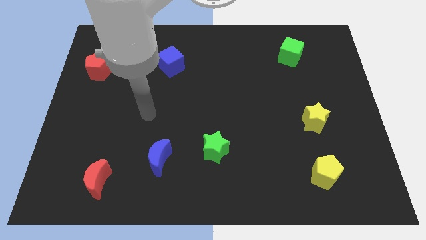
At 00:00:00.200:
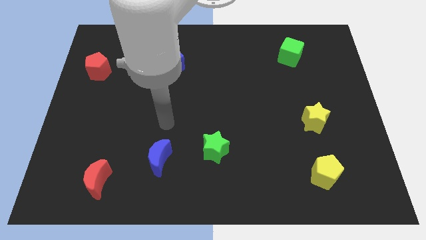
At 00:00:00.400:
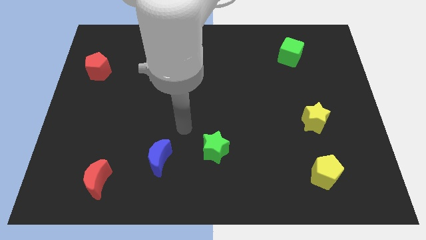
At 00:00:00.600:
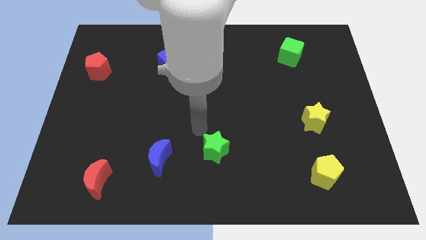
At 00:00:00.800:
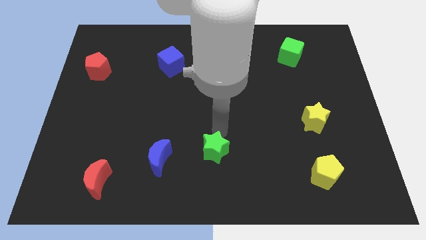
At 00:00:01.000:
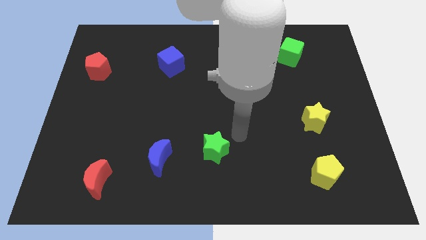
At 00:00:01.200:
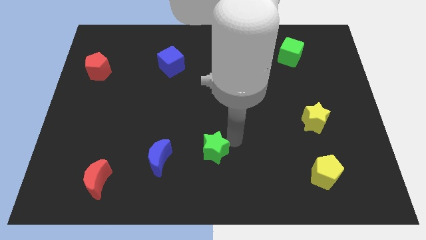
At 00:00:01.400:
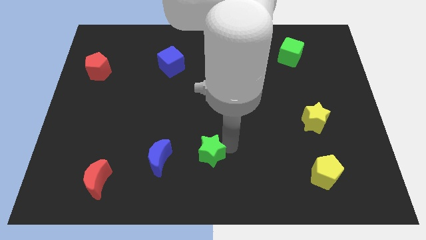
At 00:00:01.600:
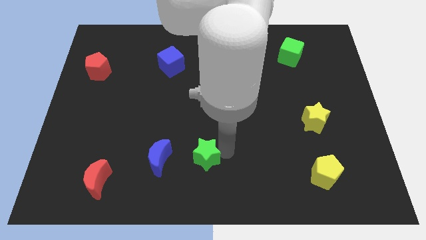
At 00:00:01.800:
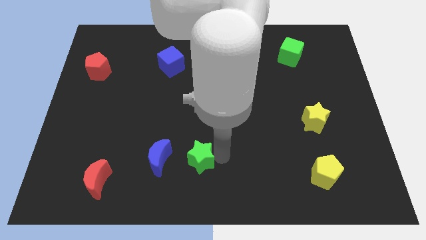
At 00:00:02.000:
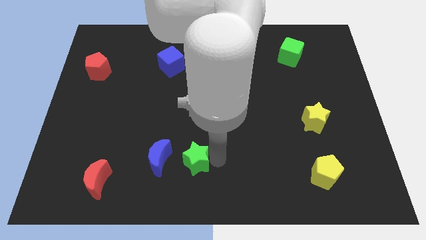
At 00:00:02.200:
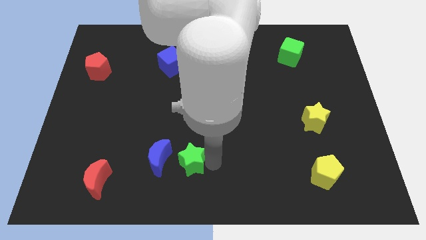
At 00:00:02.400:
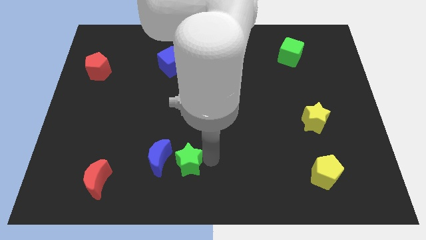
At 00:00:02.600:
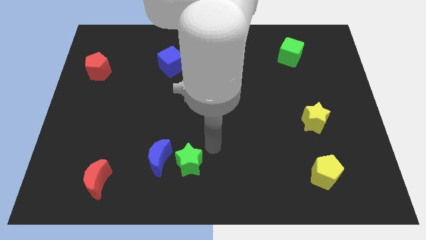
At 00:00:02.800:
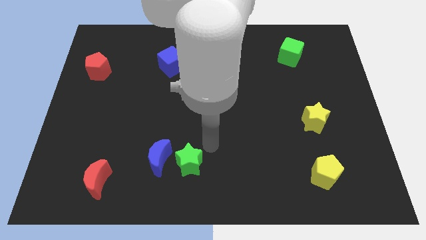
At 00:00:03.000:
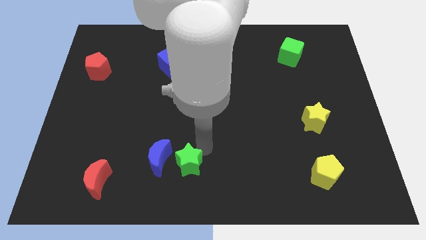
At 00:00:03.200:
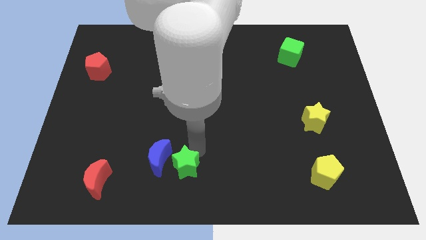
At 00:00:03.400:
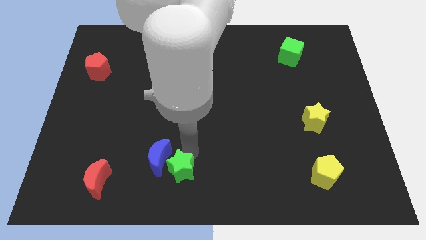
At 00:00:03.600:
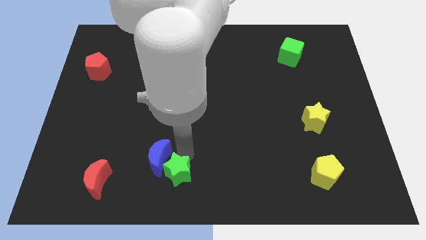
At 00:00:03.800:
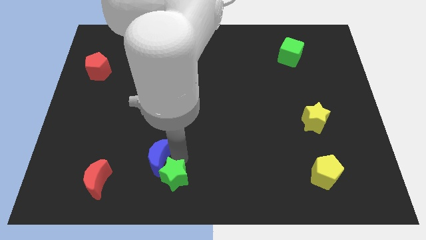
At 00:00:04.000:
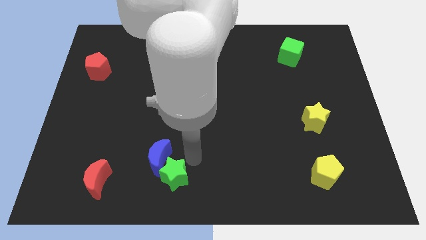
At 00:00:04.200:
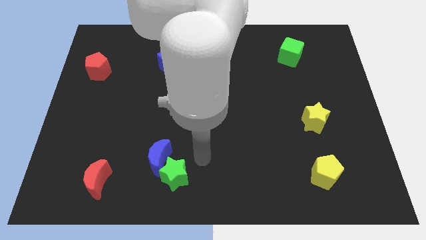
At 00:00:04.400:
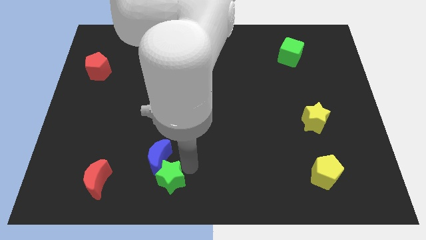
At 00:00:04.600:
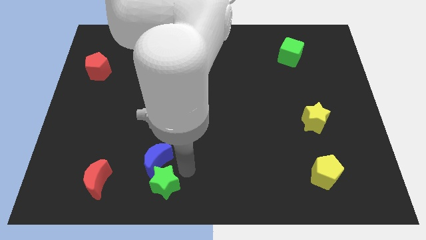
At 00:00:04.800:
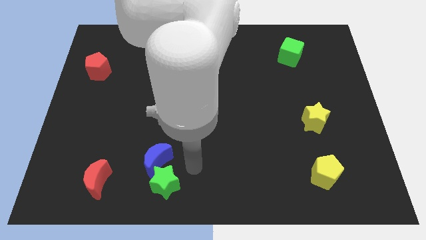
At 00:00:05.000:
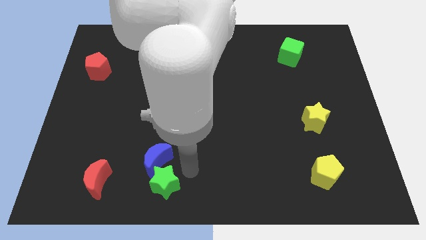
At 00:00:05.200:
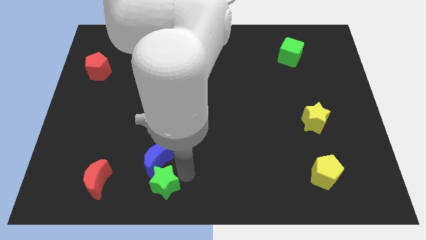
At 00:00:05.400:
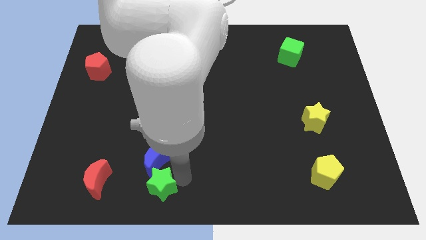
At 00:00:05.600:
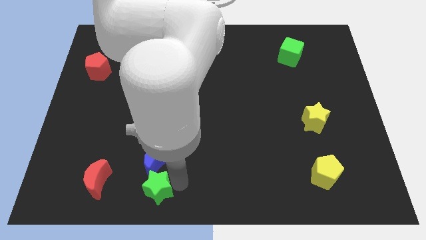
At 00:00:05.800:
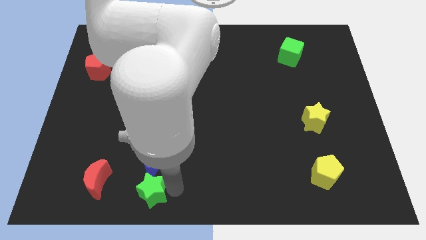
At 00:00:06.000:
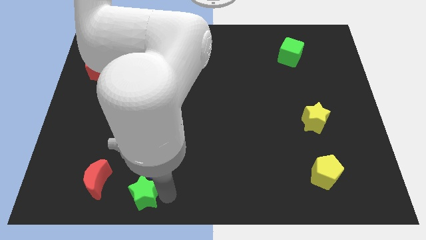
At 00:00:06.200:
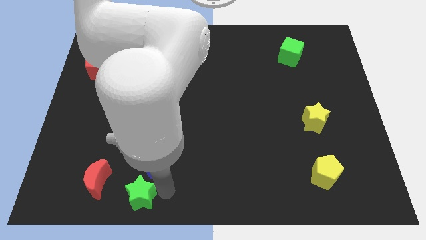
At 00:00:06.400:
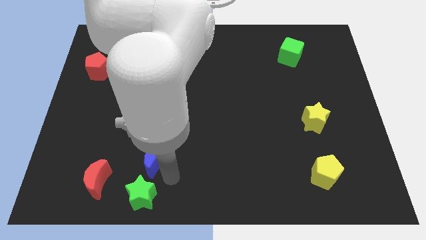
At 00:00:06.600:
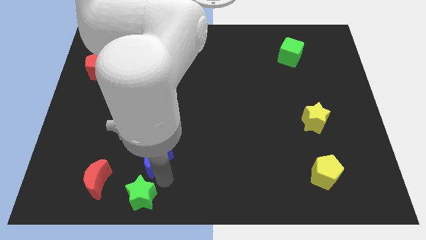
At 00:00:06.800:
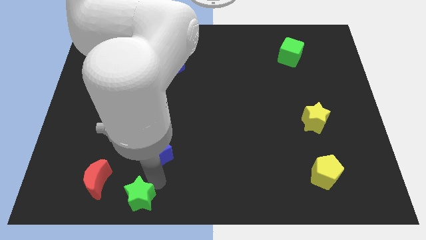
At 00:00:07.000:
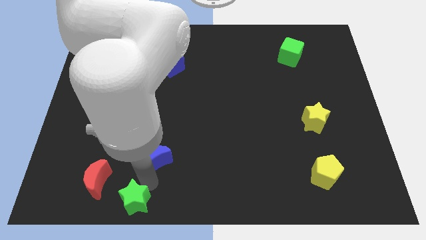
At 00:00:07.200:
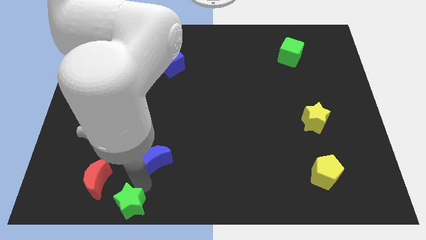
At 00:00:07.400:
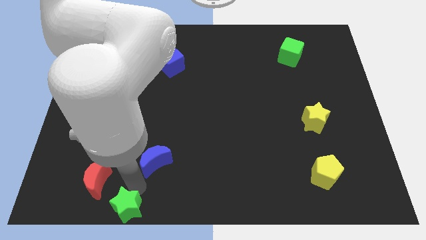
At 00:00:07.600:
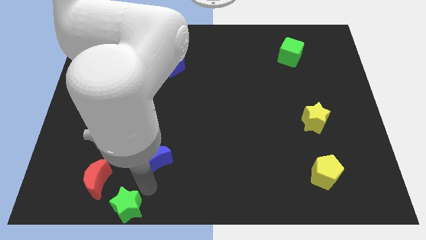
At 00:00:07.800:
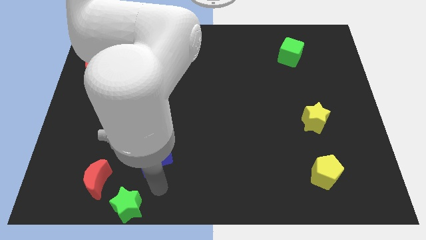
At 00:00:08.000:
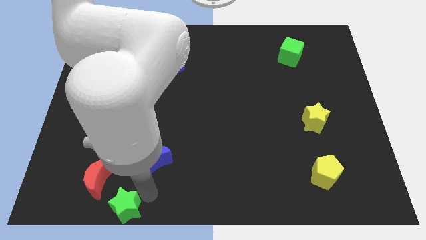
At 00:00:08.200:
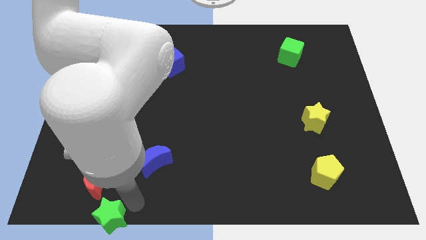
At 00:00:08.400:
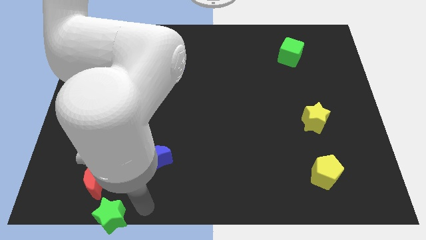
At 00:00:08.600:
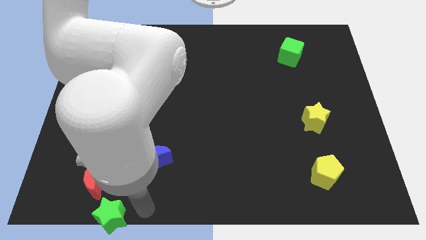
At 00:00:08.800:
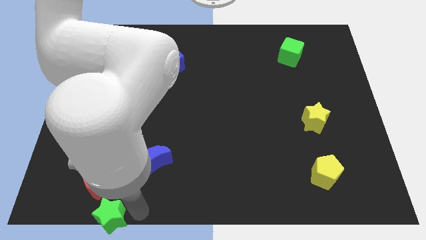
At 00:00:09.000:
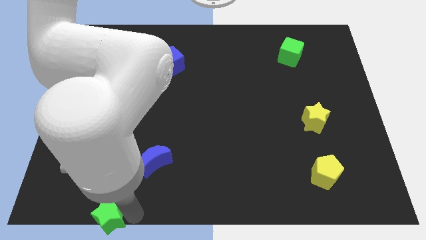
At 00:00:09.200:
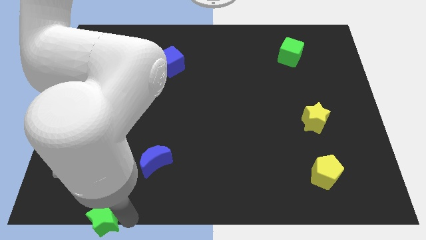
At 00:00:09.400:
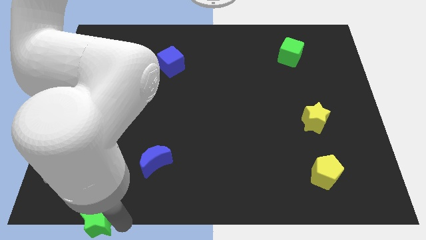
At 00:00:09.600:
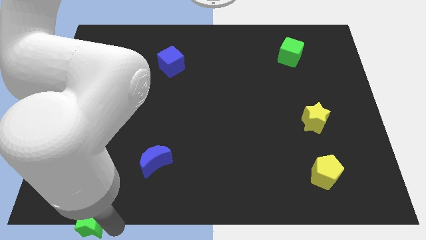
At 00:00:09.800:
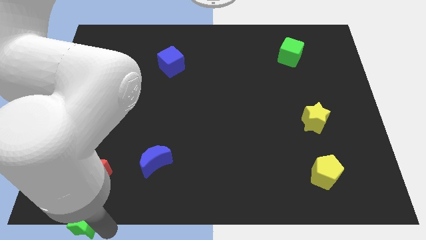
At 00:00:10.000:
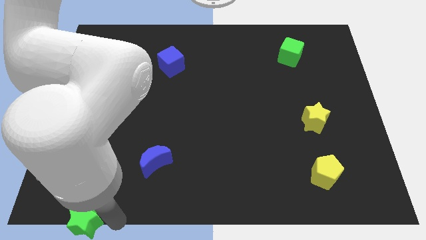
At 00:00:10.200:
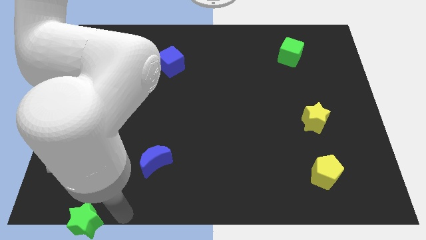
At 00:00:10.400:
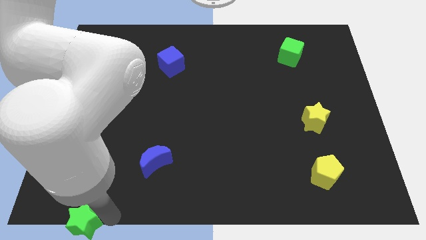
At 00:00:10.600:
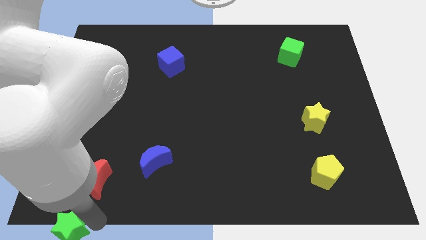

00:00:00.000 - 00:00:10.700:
move the green star to the bottom left

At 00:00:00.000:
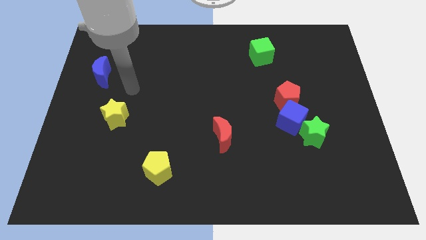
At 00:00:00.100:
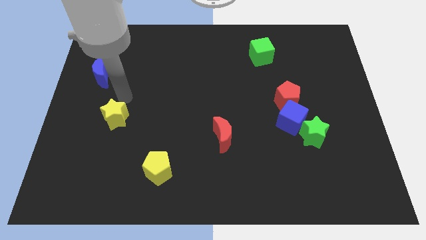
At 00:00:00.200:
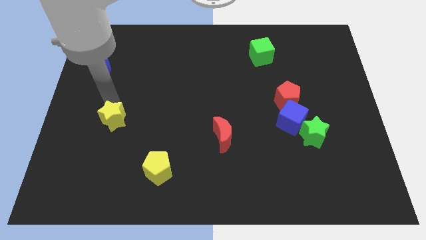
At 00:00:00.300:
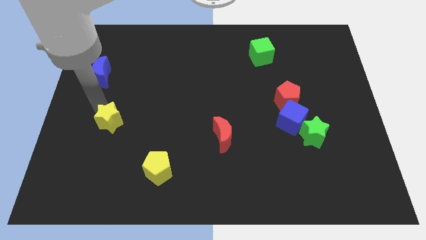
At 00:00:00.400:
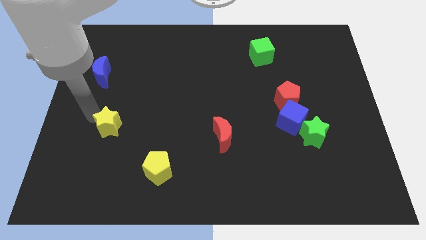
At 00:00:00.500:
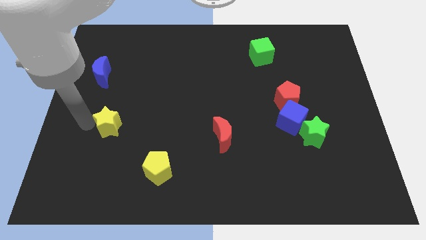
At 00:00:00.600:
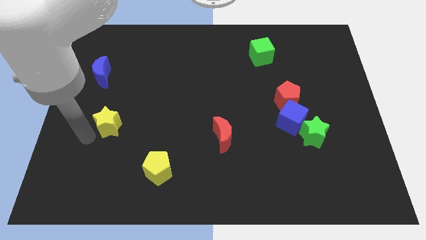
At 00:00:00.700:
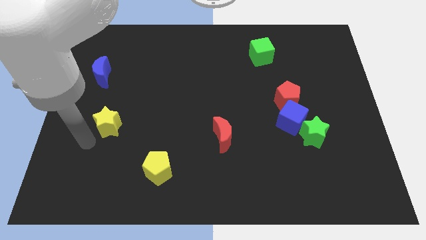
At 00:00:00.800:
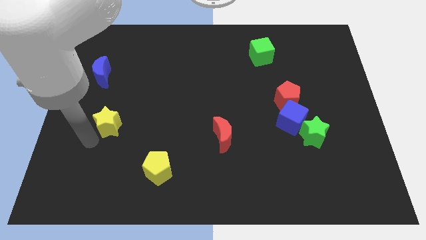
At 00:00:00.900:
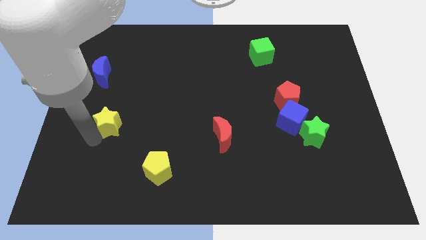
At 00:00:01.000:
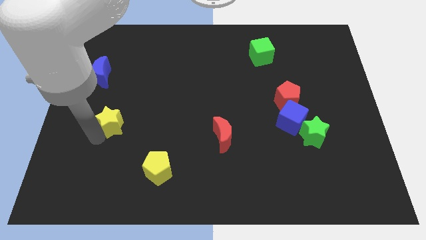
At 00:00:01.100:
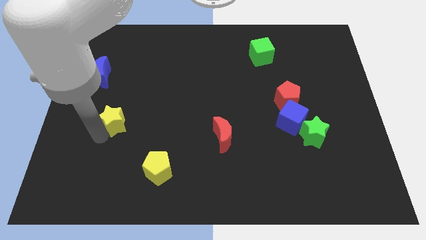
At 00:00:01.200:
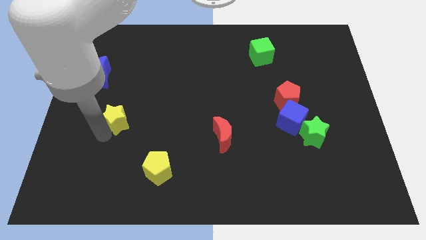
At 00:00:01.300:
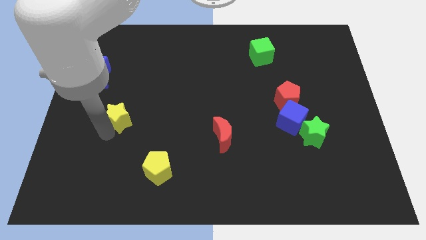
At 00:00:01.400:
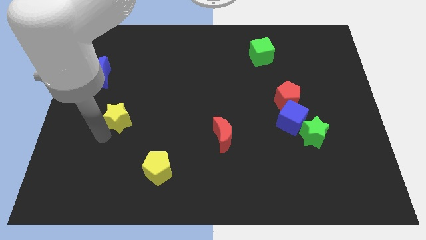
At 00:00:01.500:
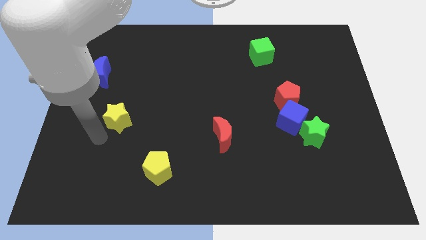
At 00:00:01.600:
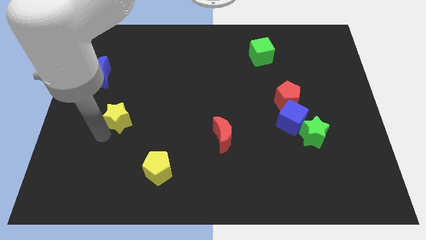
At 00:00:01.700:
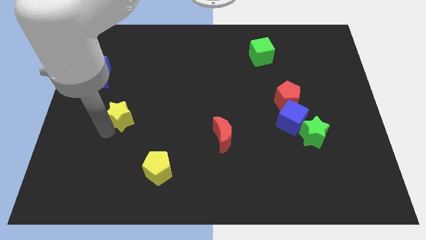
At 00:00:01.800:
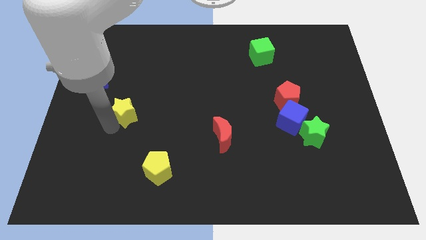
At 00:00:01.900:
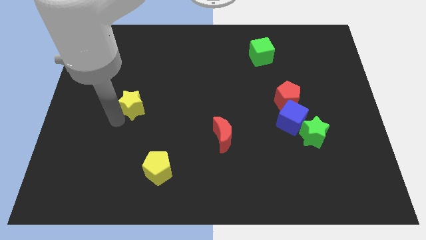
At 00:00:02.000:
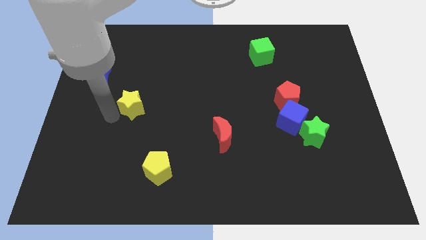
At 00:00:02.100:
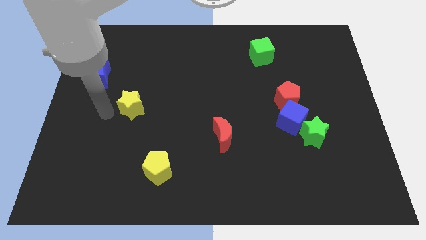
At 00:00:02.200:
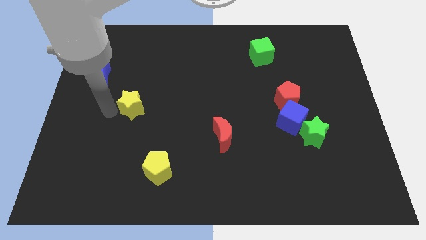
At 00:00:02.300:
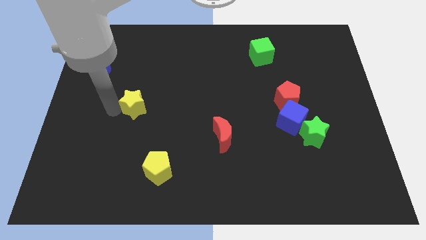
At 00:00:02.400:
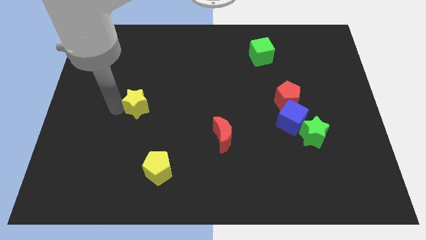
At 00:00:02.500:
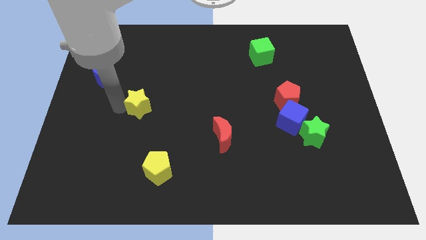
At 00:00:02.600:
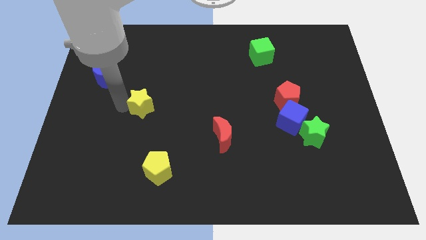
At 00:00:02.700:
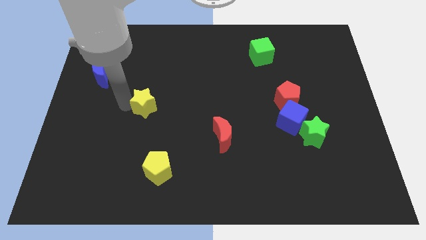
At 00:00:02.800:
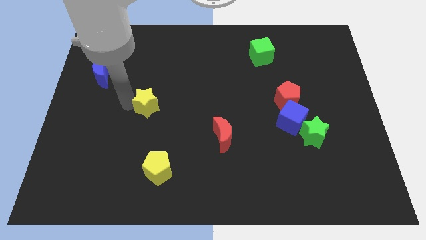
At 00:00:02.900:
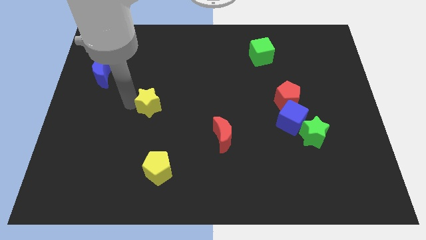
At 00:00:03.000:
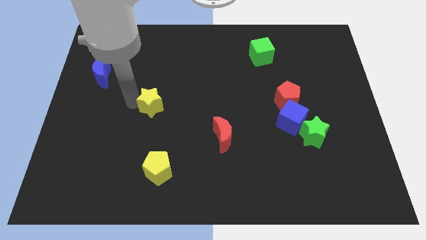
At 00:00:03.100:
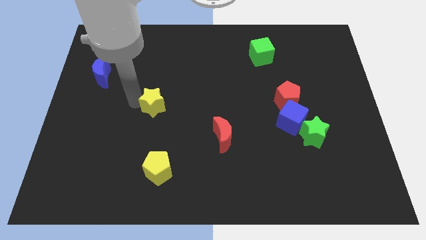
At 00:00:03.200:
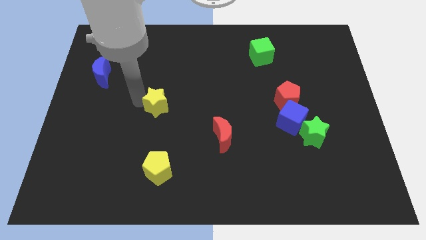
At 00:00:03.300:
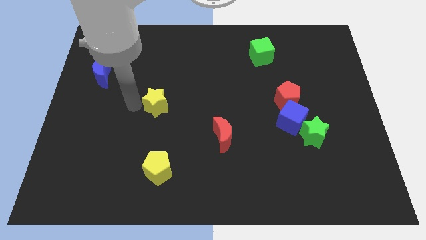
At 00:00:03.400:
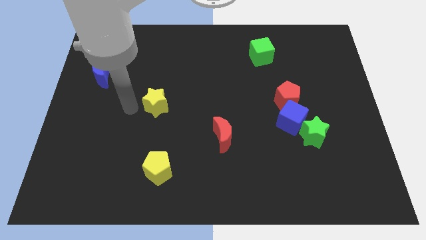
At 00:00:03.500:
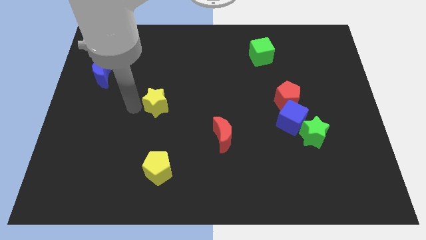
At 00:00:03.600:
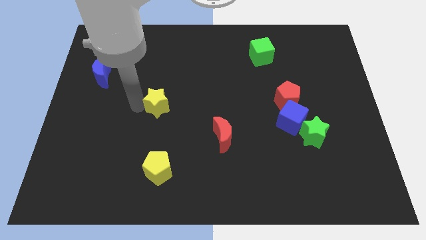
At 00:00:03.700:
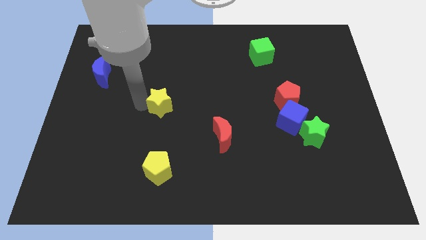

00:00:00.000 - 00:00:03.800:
push the yellow star to the center
